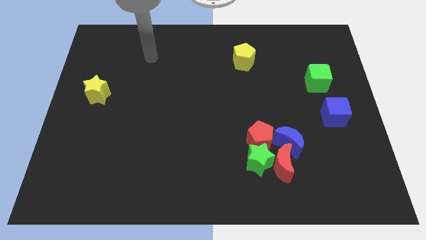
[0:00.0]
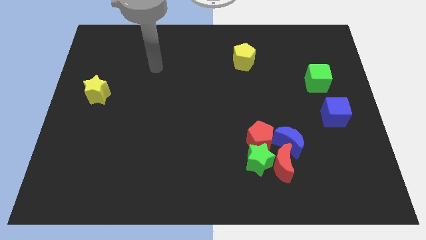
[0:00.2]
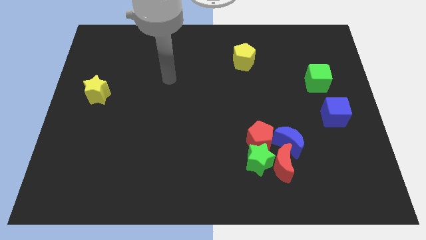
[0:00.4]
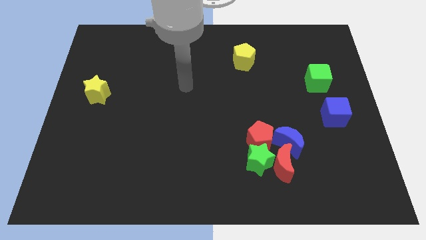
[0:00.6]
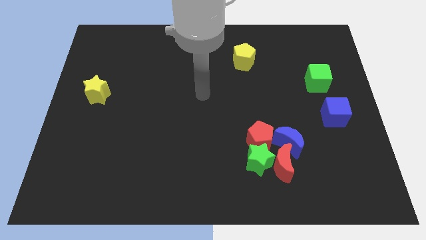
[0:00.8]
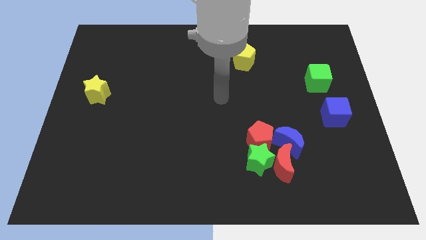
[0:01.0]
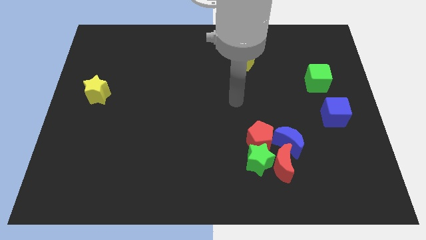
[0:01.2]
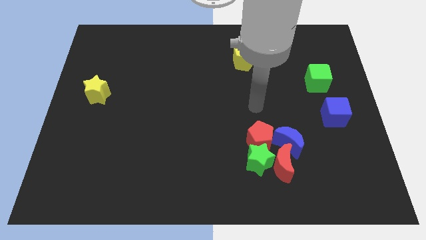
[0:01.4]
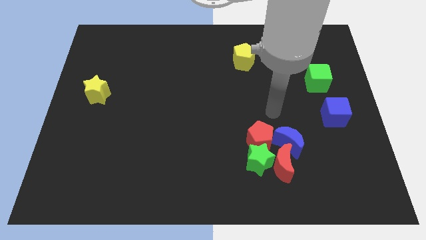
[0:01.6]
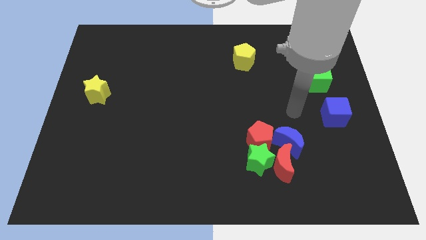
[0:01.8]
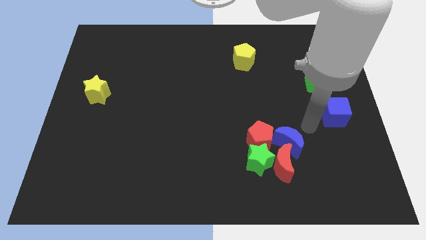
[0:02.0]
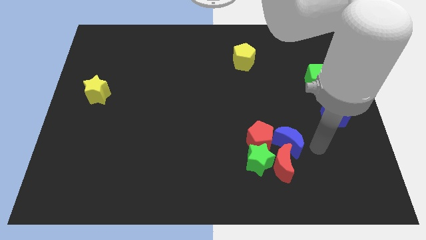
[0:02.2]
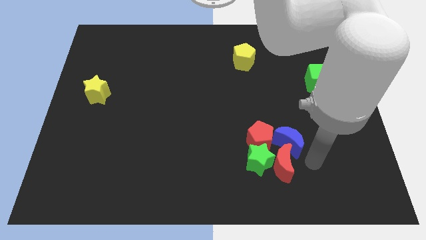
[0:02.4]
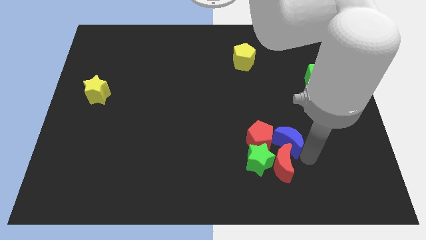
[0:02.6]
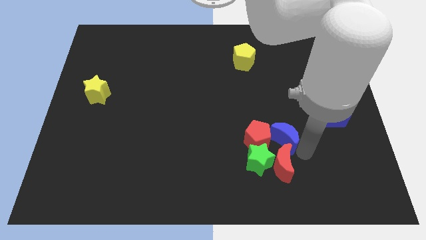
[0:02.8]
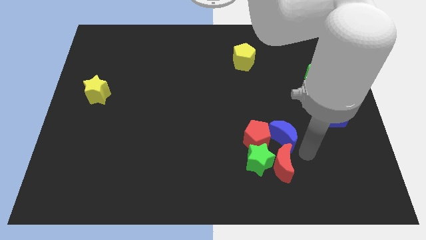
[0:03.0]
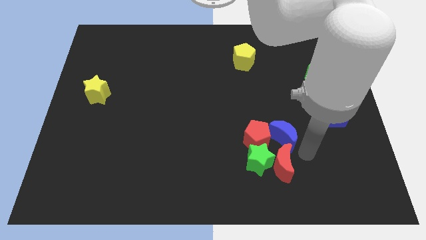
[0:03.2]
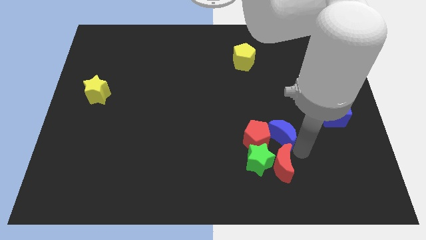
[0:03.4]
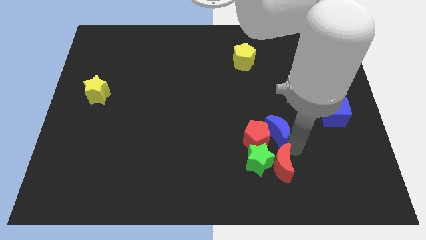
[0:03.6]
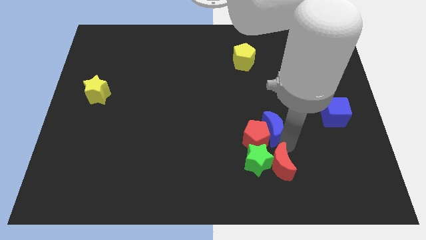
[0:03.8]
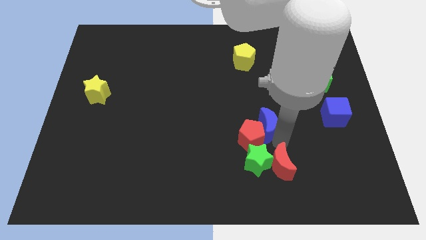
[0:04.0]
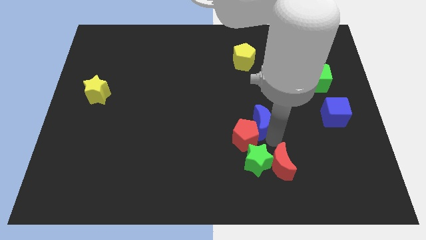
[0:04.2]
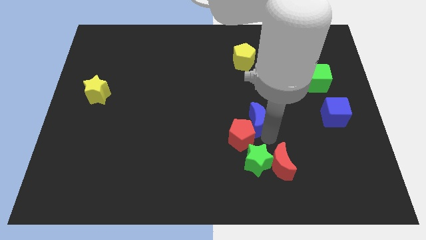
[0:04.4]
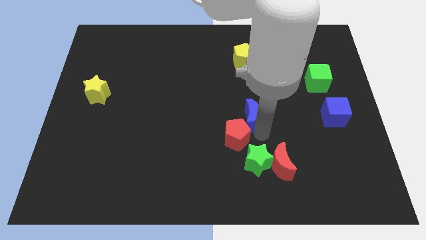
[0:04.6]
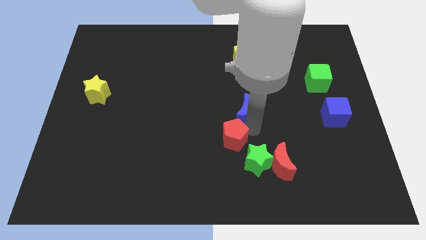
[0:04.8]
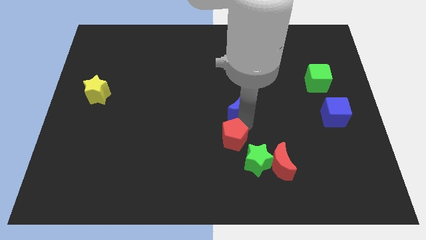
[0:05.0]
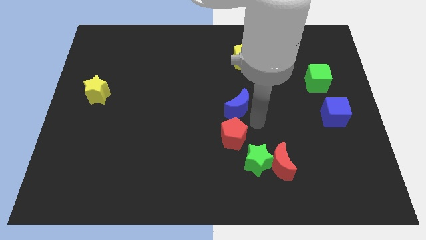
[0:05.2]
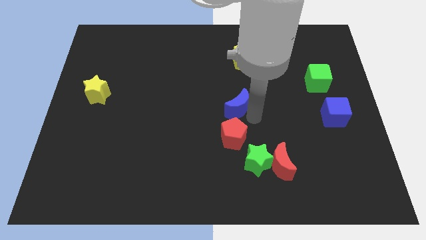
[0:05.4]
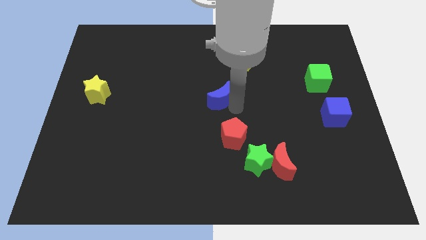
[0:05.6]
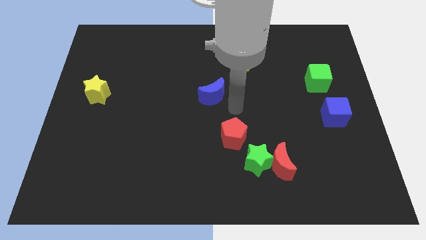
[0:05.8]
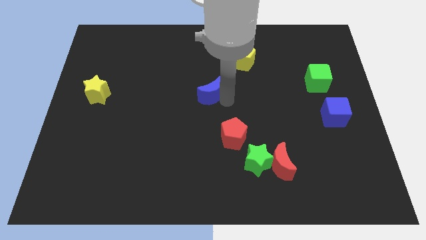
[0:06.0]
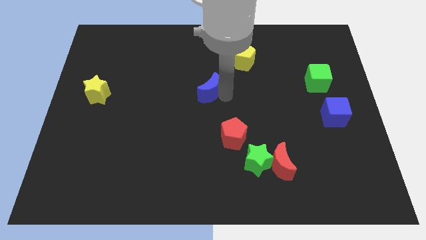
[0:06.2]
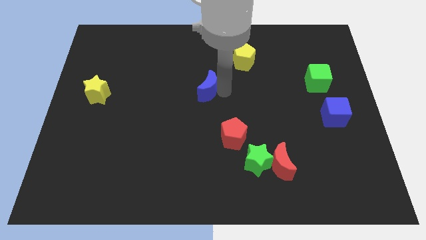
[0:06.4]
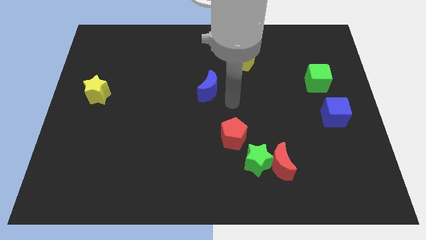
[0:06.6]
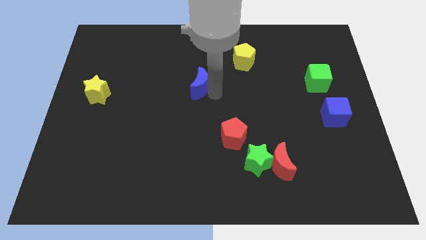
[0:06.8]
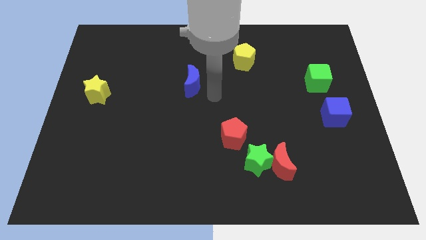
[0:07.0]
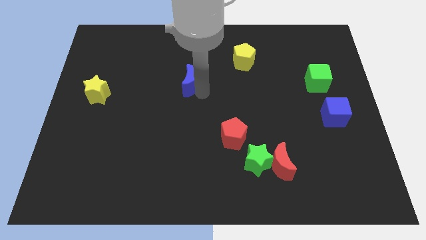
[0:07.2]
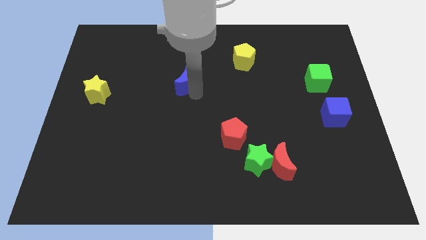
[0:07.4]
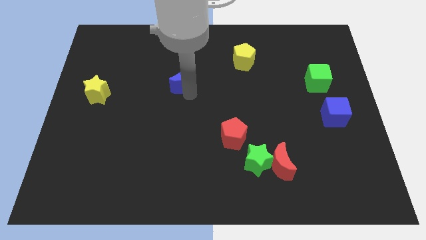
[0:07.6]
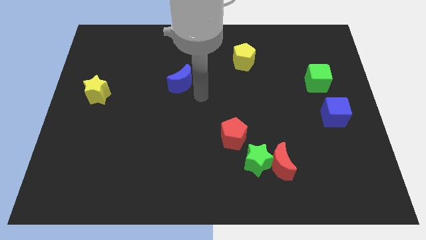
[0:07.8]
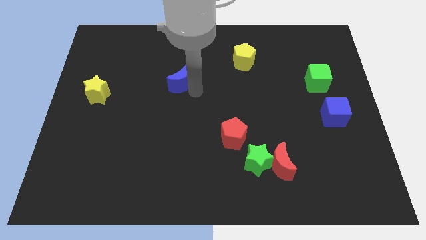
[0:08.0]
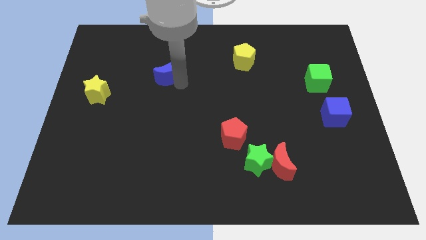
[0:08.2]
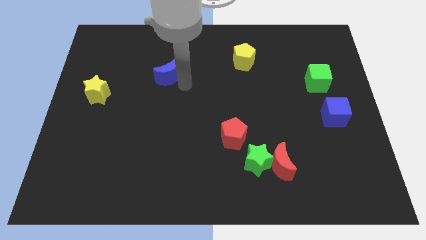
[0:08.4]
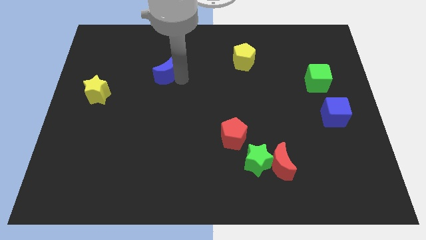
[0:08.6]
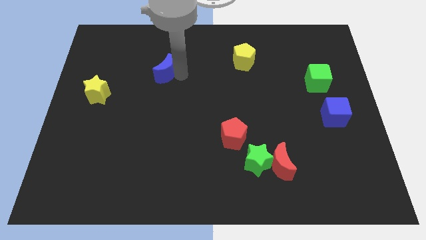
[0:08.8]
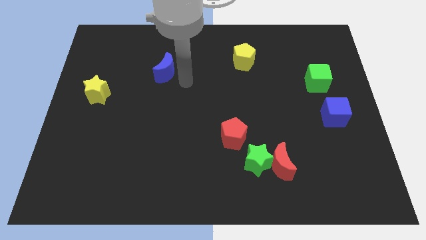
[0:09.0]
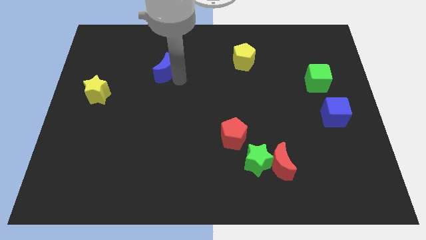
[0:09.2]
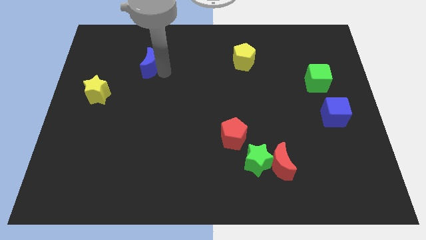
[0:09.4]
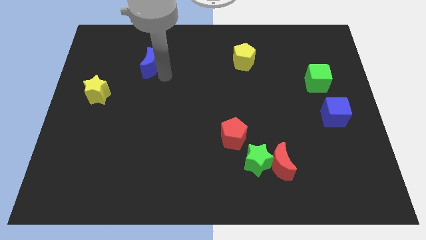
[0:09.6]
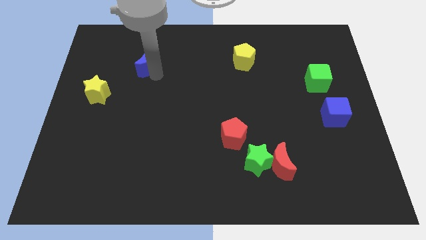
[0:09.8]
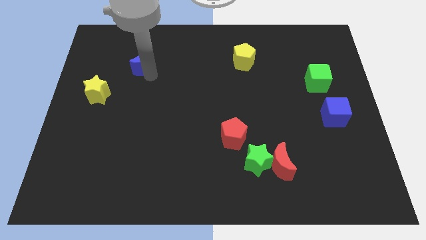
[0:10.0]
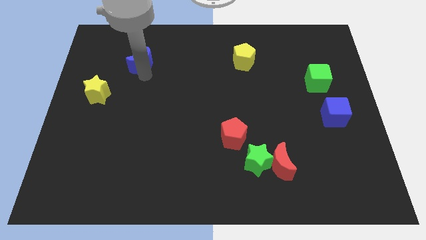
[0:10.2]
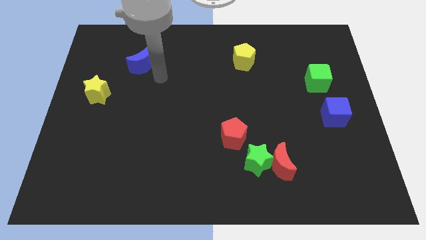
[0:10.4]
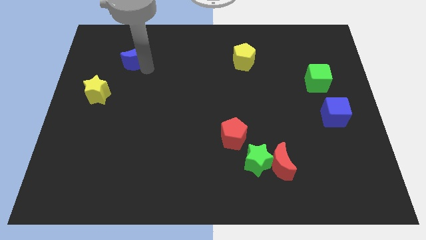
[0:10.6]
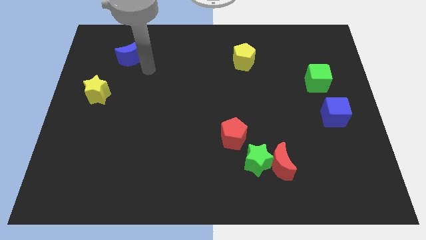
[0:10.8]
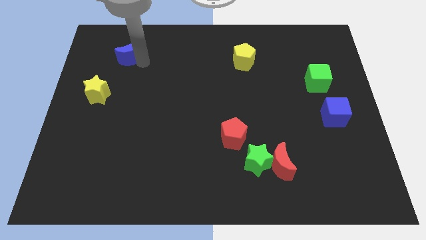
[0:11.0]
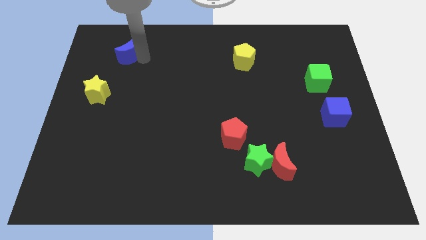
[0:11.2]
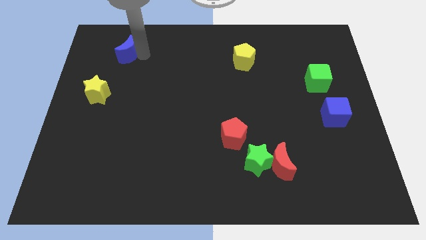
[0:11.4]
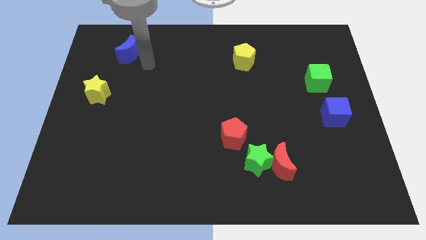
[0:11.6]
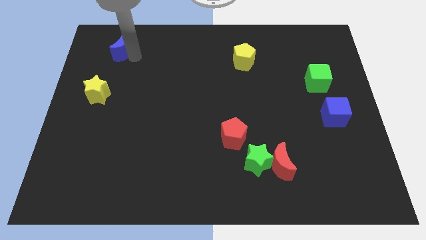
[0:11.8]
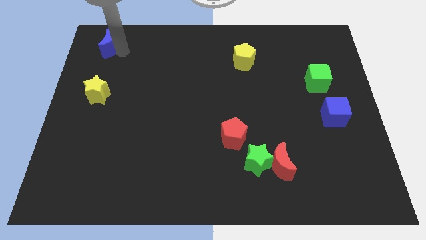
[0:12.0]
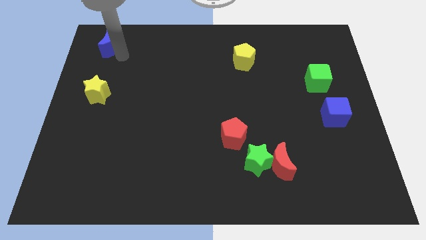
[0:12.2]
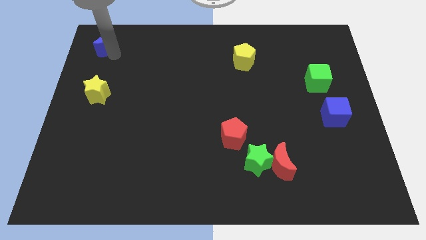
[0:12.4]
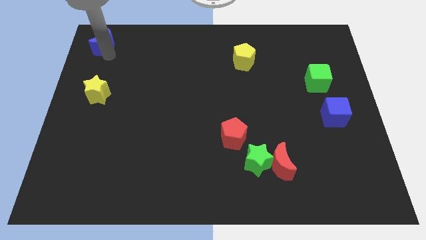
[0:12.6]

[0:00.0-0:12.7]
slide the blue moon to the top left corner
